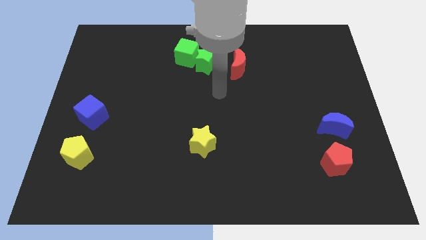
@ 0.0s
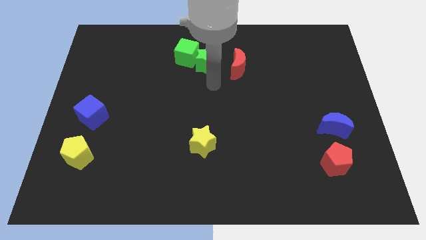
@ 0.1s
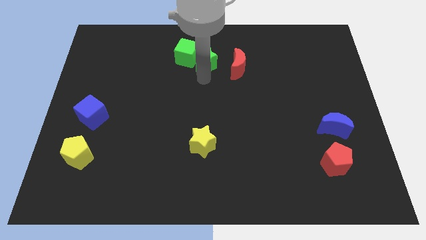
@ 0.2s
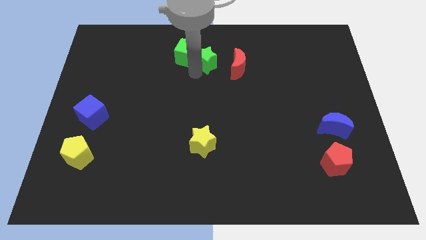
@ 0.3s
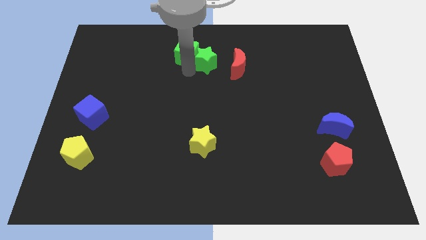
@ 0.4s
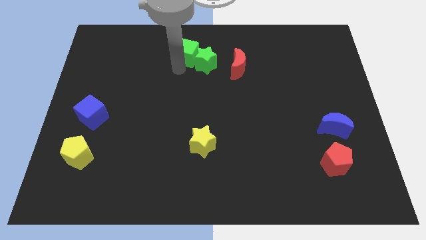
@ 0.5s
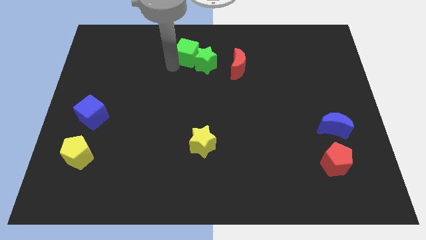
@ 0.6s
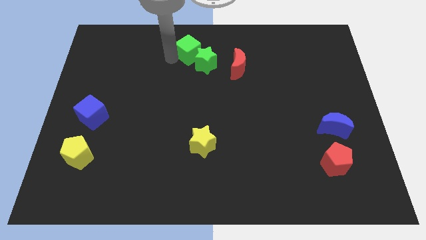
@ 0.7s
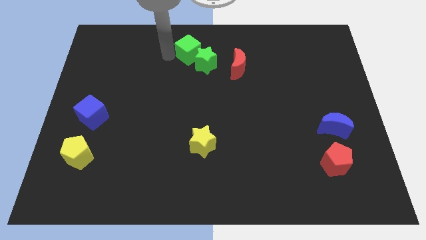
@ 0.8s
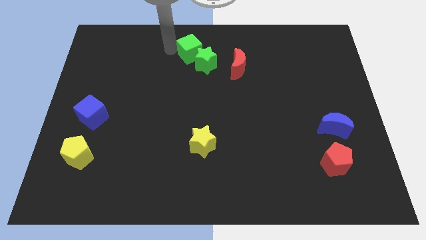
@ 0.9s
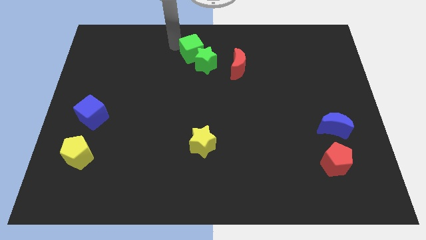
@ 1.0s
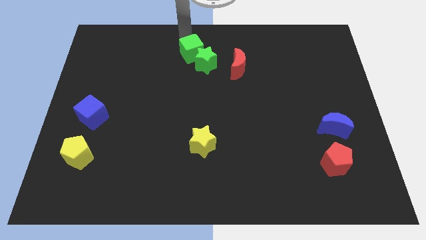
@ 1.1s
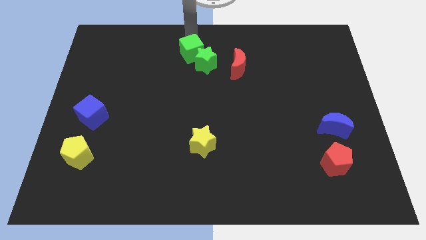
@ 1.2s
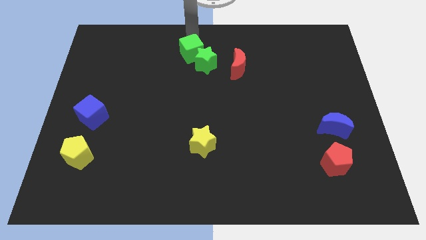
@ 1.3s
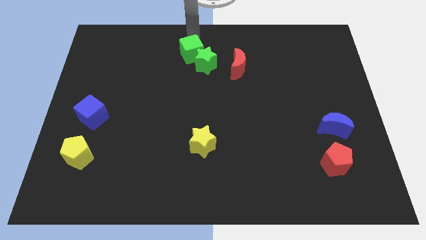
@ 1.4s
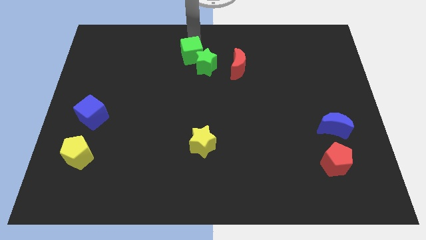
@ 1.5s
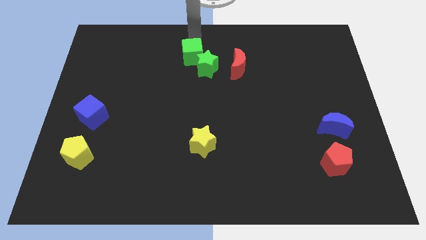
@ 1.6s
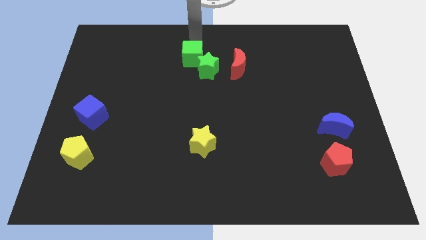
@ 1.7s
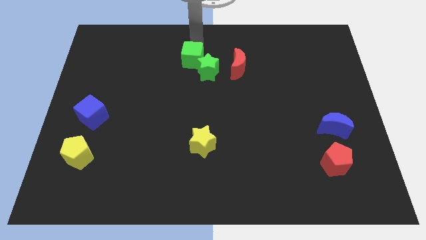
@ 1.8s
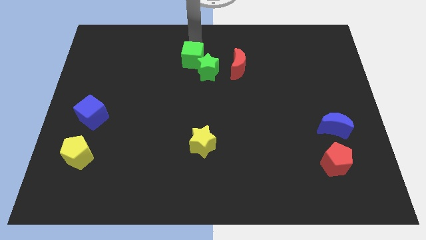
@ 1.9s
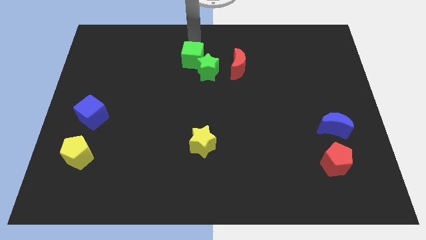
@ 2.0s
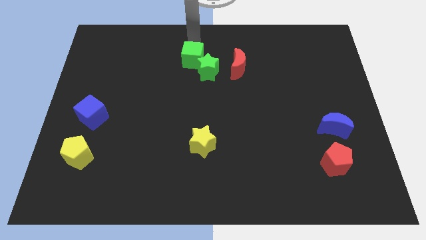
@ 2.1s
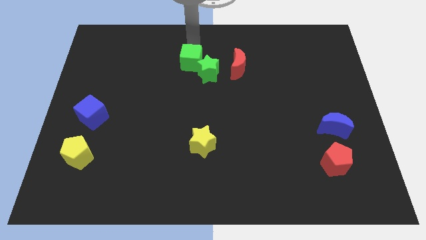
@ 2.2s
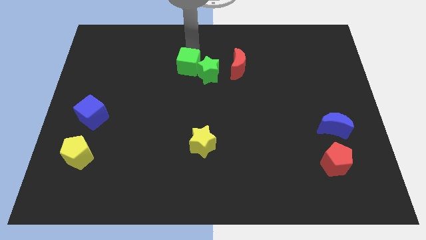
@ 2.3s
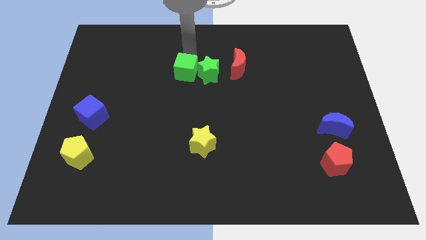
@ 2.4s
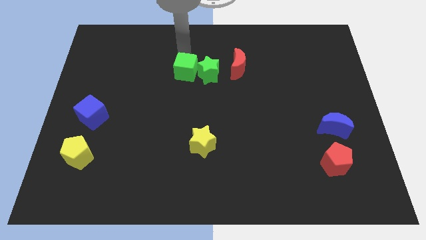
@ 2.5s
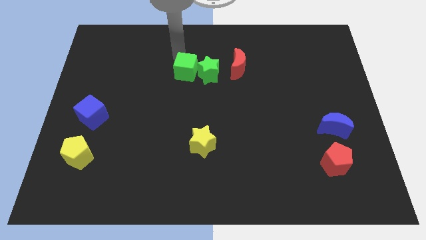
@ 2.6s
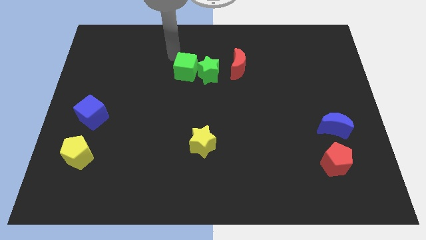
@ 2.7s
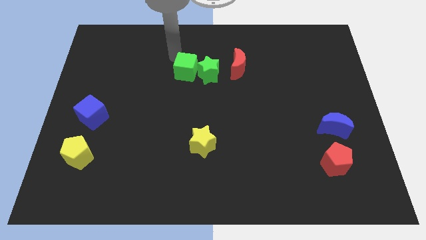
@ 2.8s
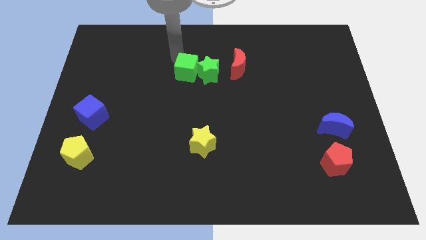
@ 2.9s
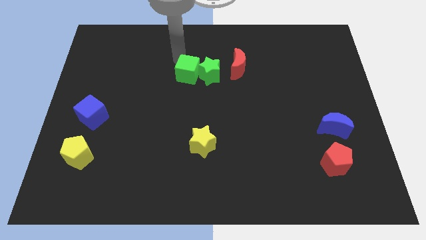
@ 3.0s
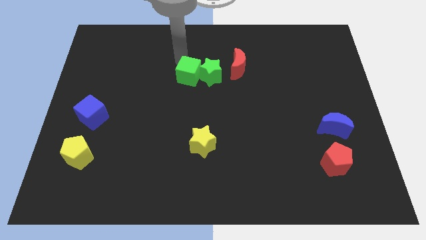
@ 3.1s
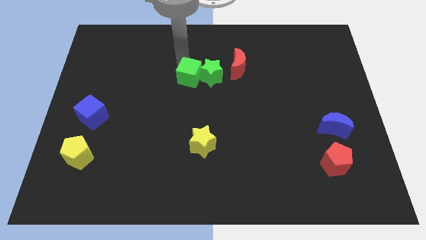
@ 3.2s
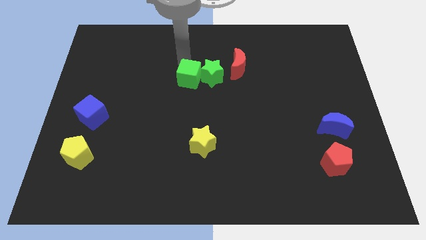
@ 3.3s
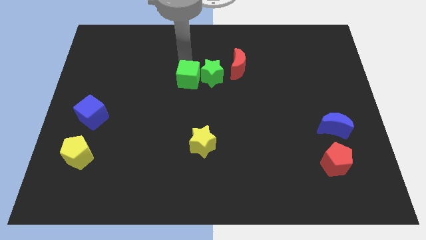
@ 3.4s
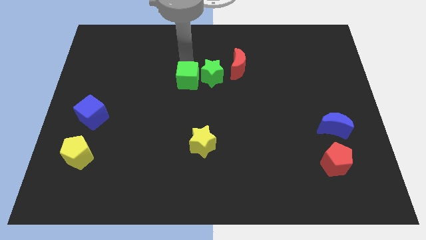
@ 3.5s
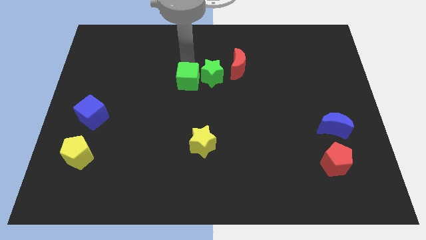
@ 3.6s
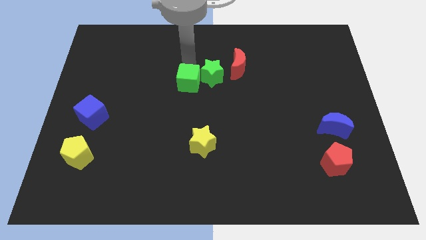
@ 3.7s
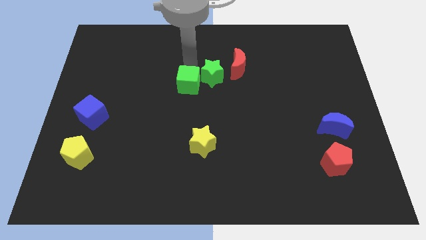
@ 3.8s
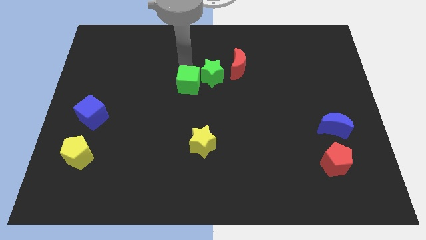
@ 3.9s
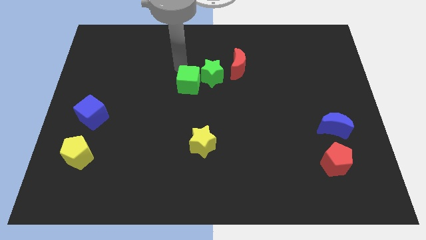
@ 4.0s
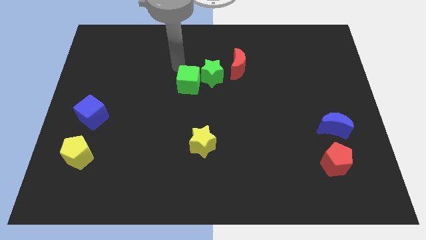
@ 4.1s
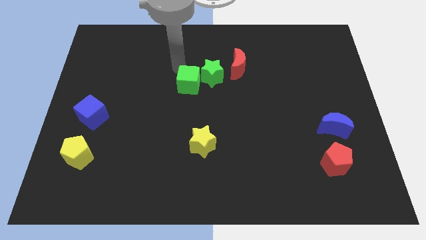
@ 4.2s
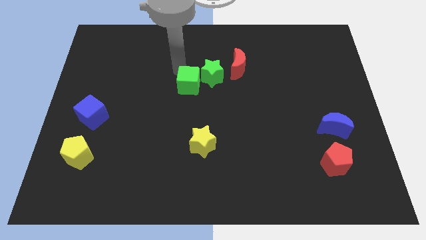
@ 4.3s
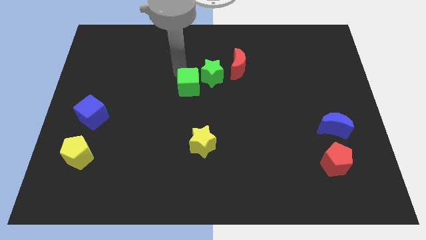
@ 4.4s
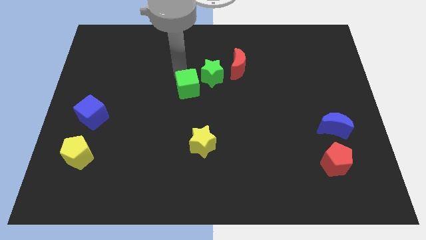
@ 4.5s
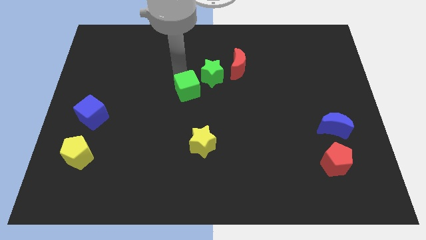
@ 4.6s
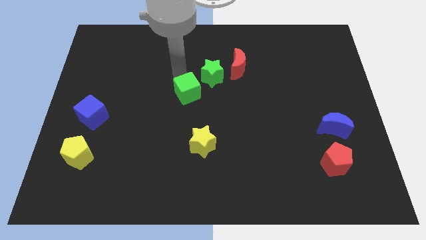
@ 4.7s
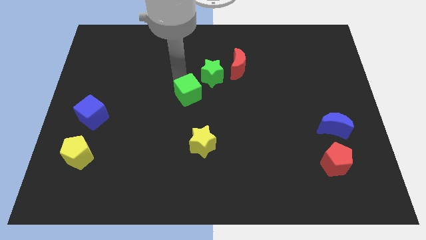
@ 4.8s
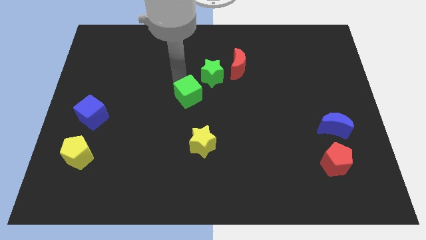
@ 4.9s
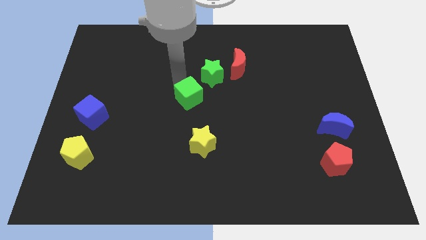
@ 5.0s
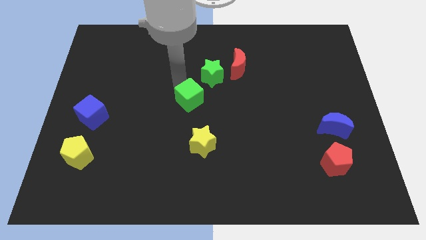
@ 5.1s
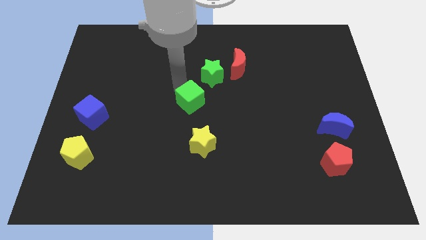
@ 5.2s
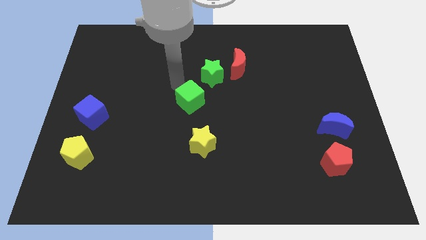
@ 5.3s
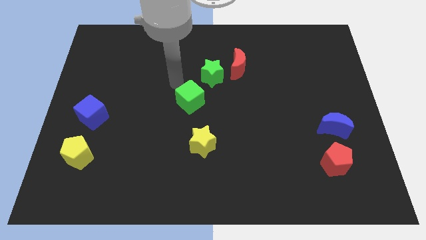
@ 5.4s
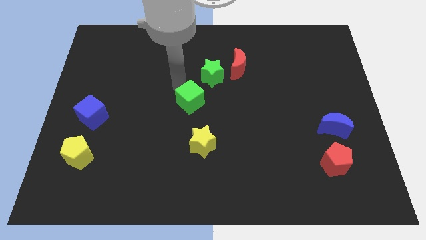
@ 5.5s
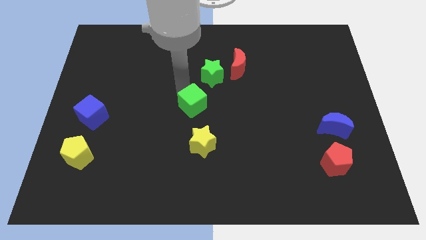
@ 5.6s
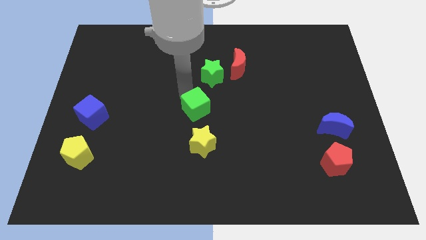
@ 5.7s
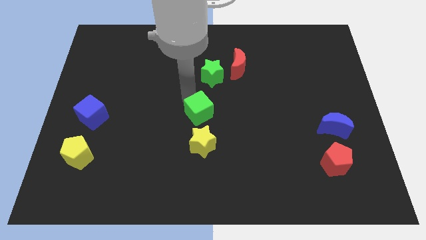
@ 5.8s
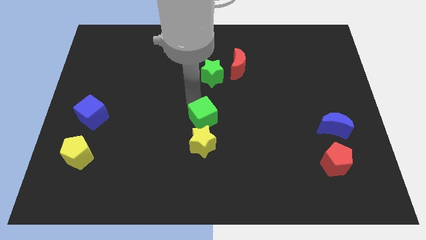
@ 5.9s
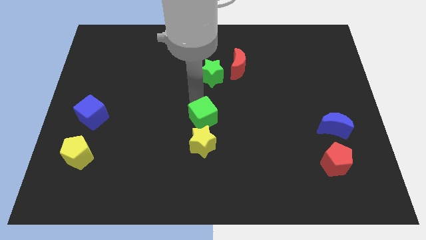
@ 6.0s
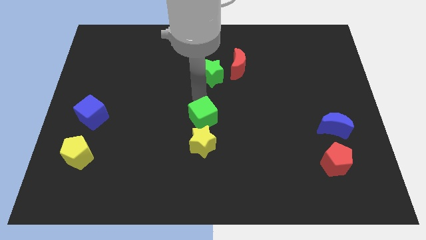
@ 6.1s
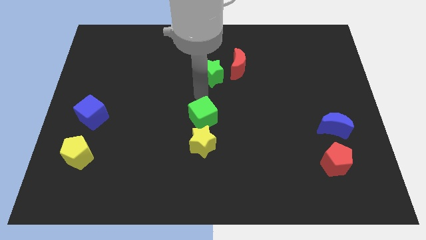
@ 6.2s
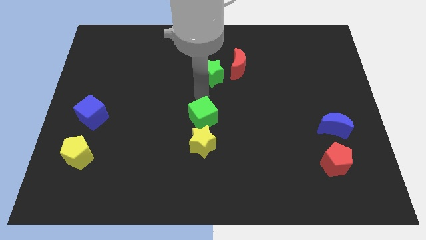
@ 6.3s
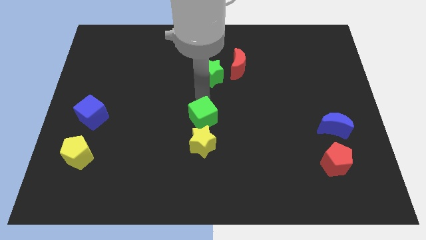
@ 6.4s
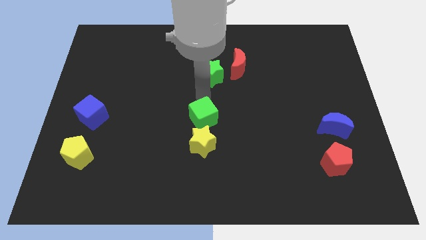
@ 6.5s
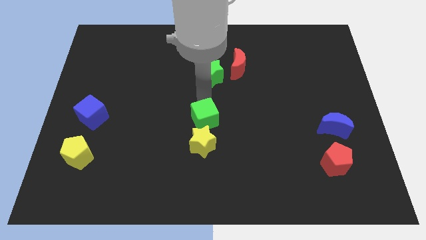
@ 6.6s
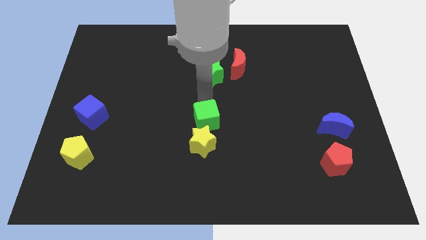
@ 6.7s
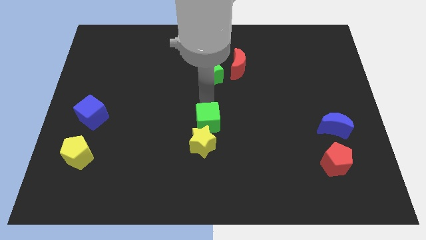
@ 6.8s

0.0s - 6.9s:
push the green cube towards the yellow star

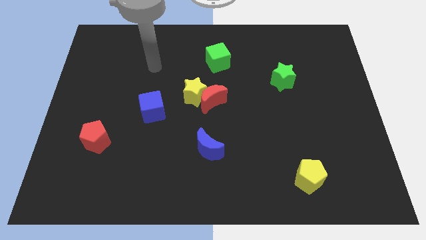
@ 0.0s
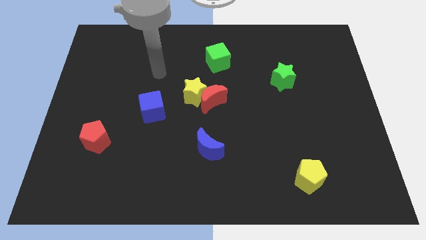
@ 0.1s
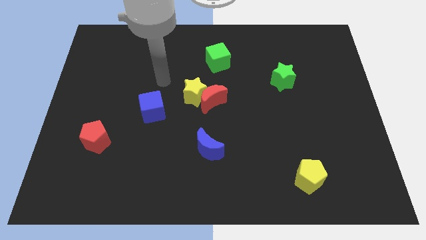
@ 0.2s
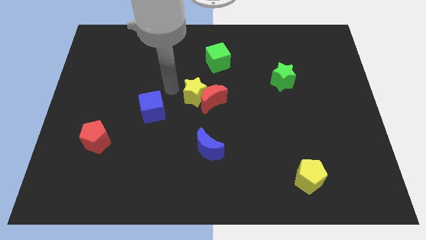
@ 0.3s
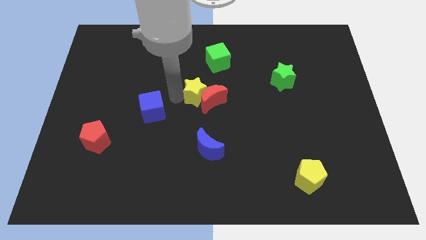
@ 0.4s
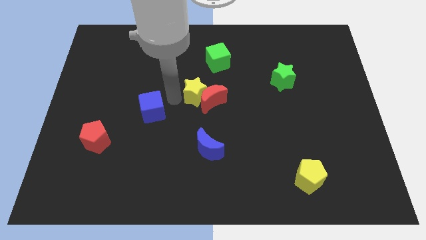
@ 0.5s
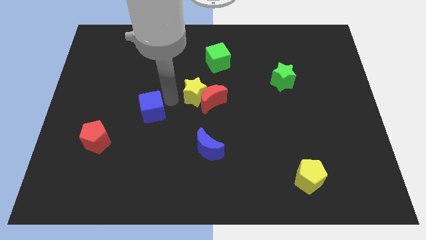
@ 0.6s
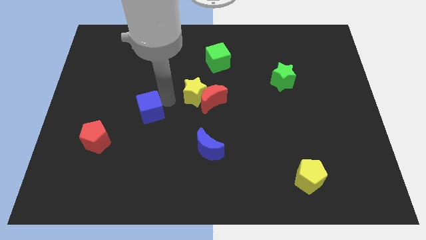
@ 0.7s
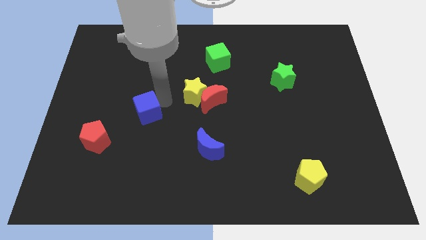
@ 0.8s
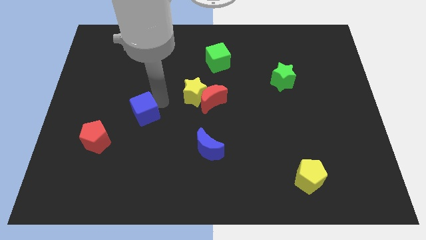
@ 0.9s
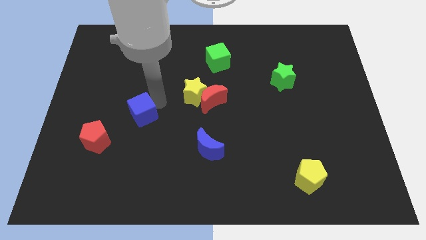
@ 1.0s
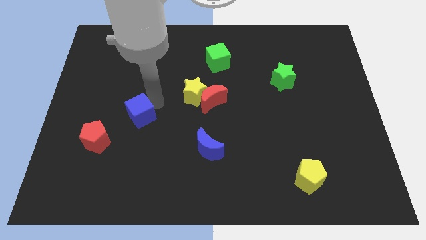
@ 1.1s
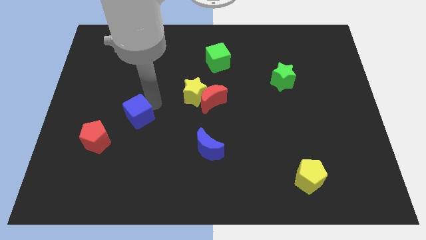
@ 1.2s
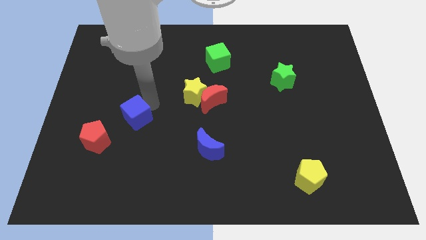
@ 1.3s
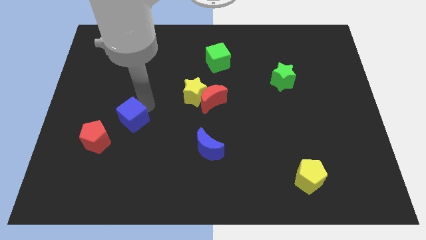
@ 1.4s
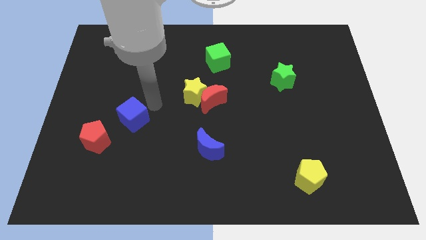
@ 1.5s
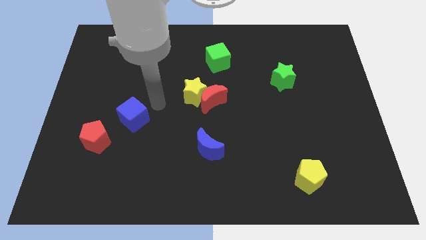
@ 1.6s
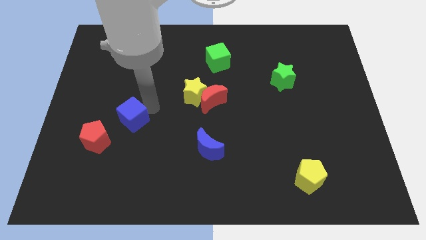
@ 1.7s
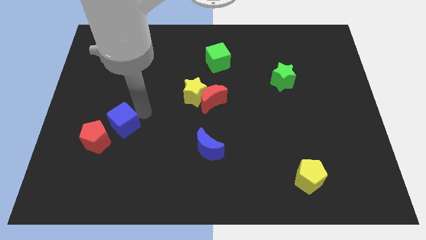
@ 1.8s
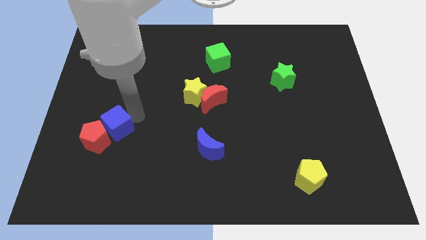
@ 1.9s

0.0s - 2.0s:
move the blue cube towards the red pentagon
